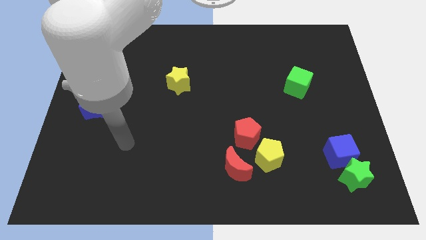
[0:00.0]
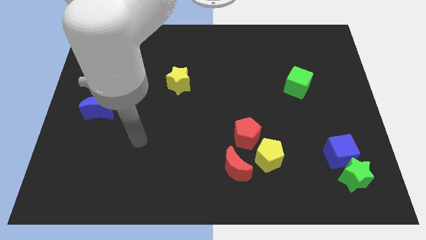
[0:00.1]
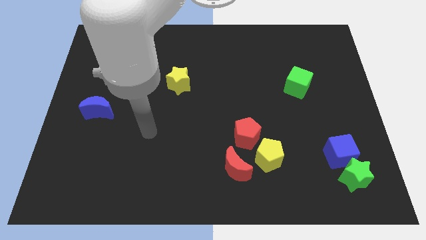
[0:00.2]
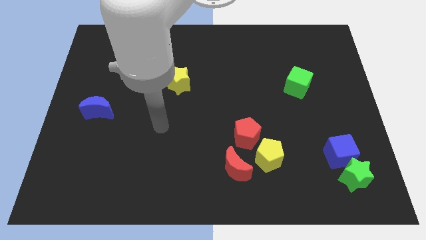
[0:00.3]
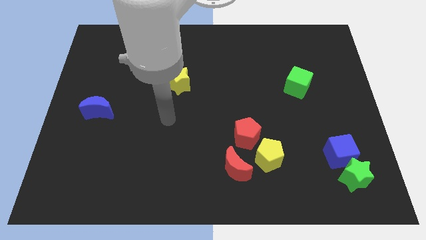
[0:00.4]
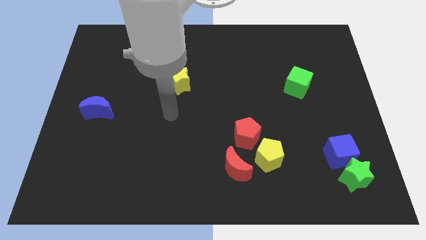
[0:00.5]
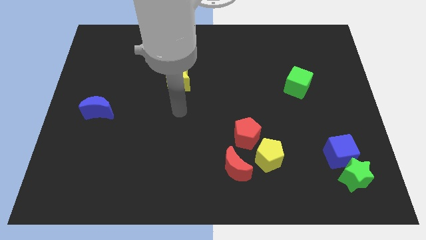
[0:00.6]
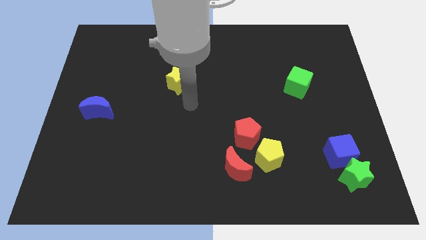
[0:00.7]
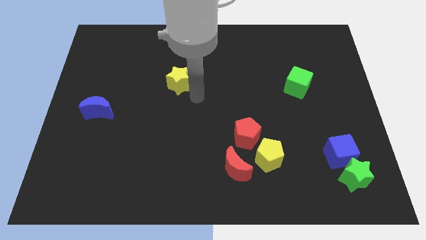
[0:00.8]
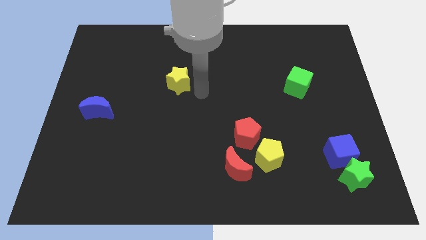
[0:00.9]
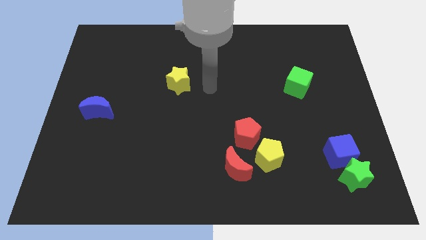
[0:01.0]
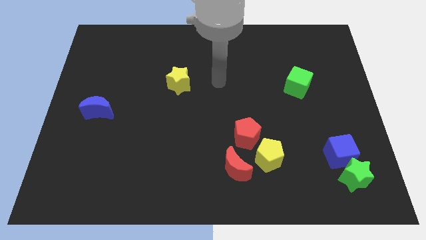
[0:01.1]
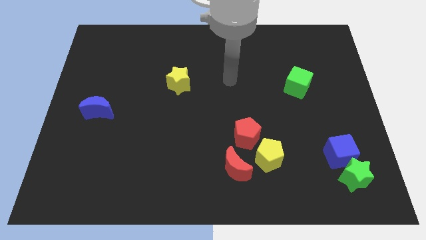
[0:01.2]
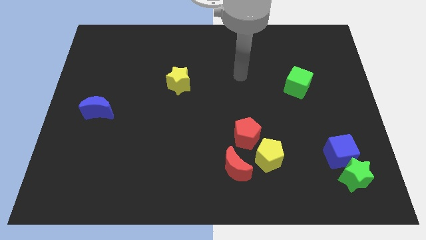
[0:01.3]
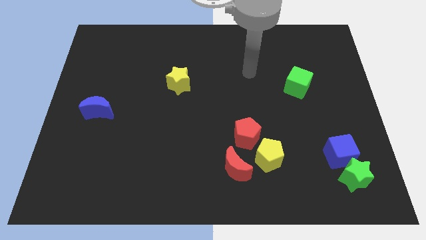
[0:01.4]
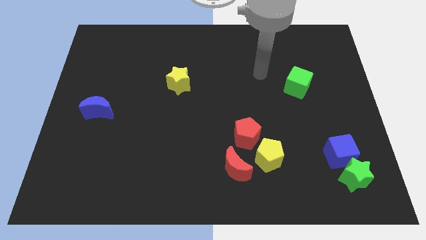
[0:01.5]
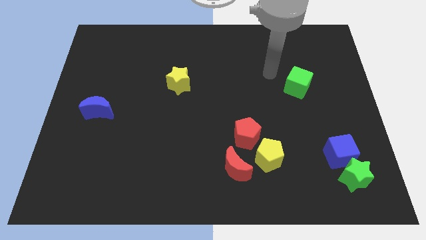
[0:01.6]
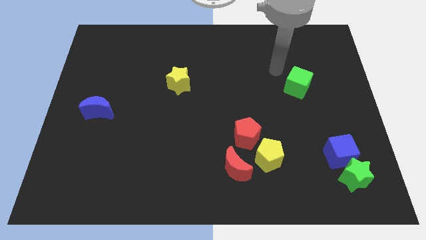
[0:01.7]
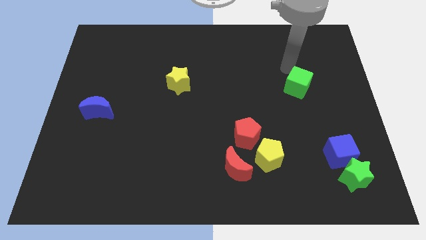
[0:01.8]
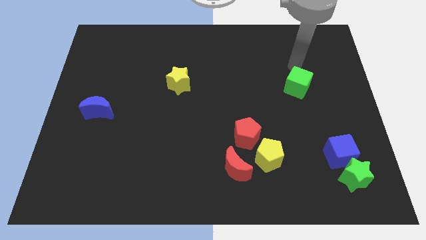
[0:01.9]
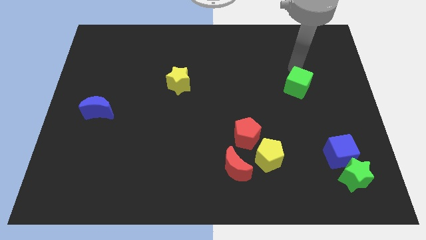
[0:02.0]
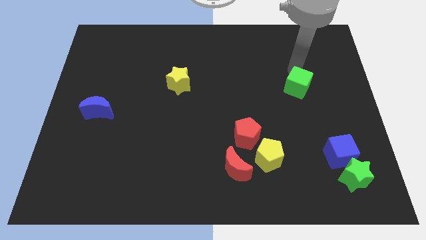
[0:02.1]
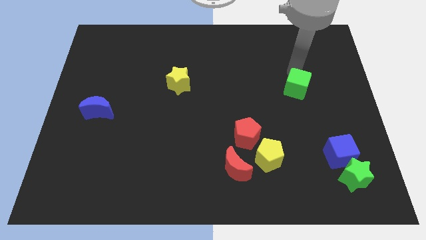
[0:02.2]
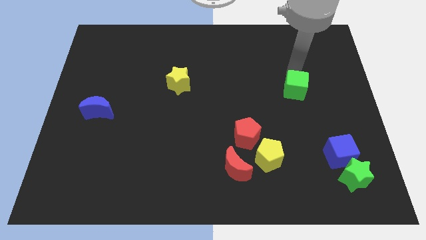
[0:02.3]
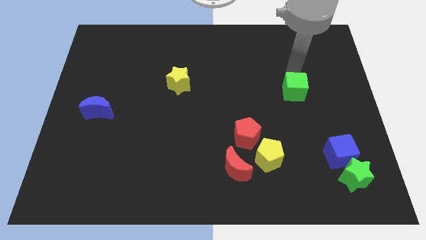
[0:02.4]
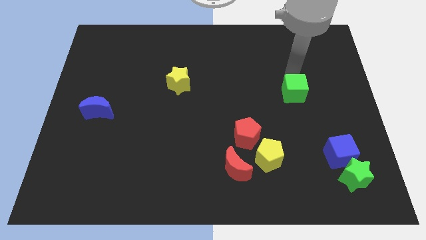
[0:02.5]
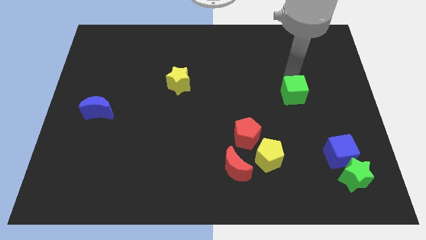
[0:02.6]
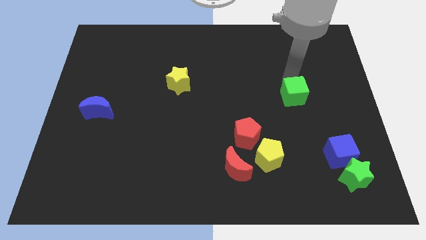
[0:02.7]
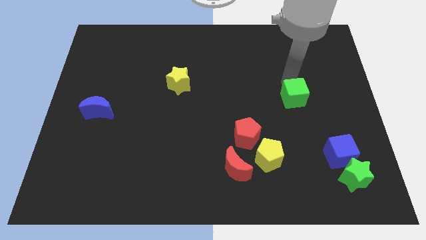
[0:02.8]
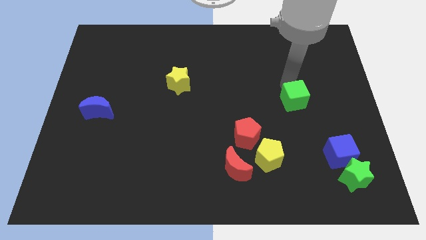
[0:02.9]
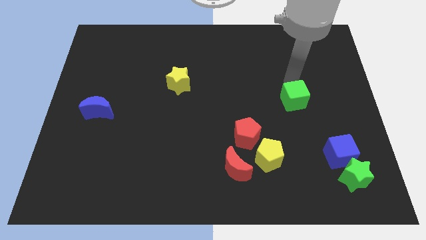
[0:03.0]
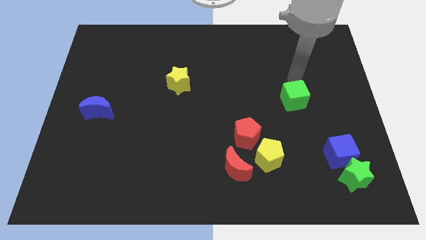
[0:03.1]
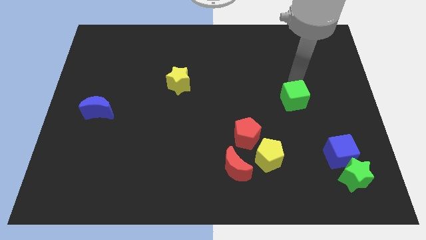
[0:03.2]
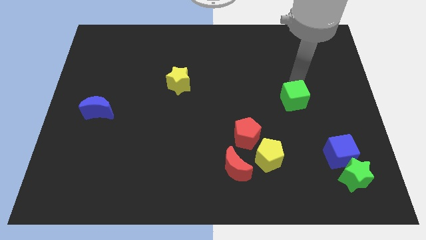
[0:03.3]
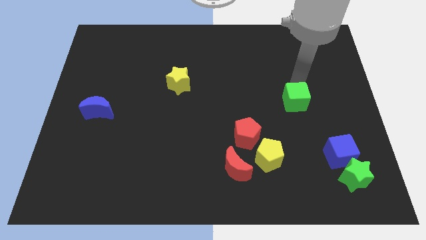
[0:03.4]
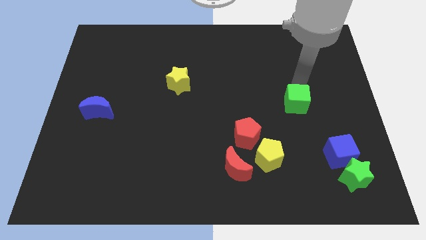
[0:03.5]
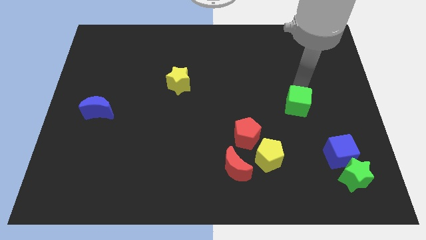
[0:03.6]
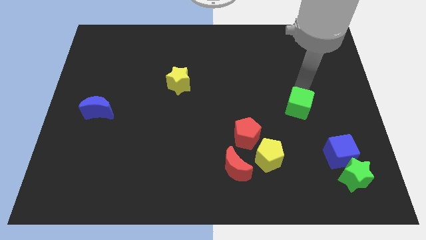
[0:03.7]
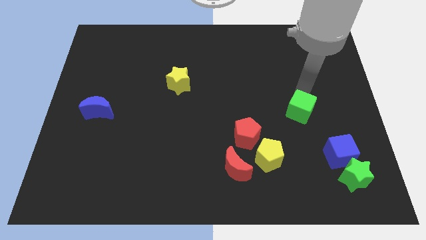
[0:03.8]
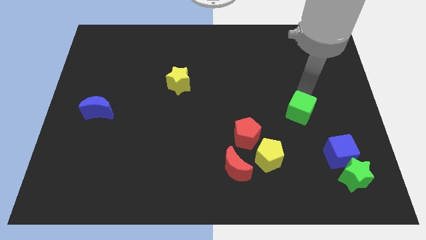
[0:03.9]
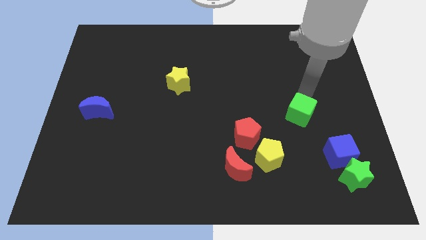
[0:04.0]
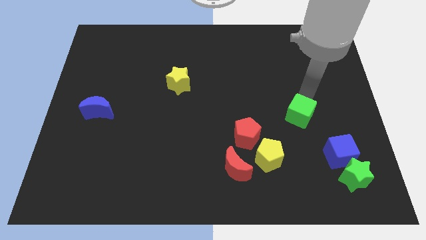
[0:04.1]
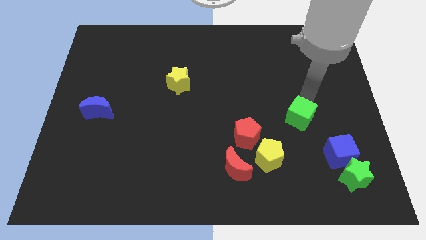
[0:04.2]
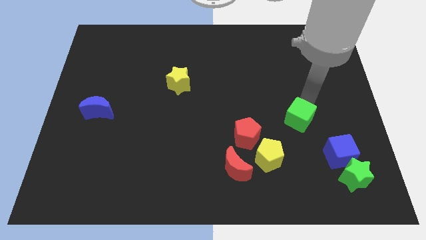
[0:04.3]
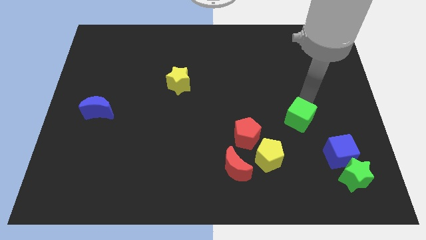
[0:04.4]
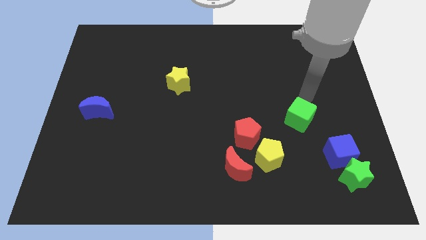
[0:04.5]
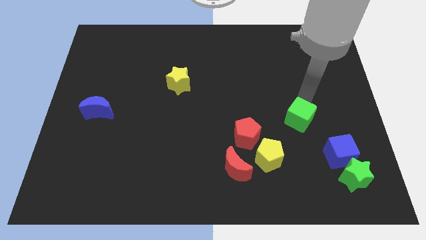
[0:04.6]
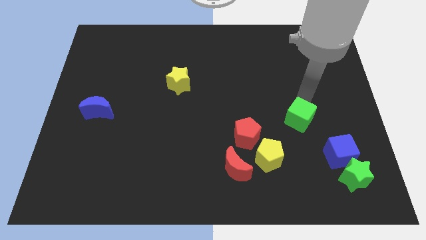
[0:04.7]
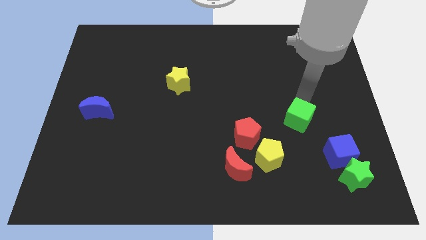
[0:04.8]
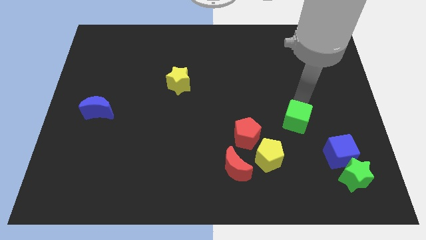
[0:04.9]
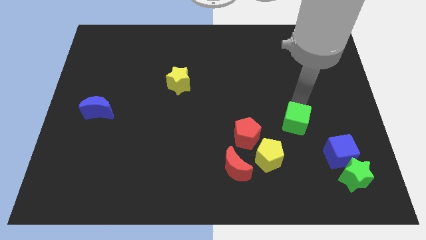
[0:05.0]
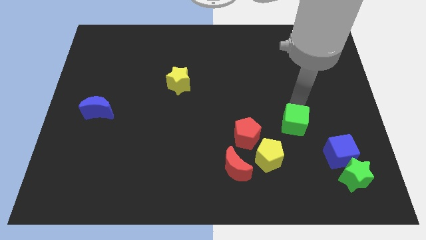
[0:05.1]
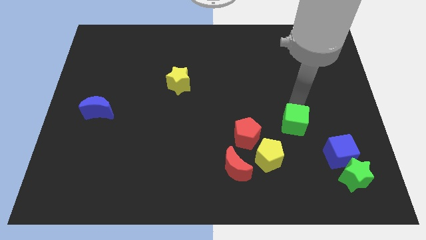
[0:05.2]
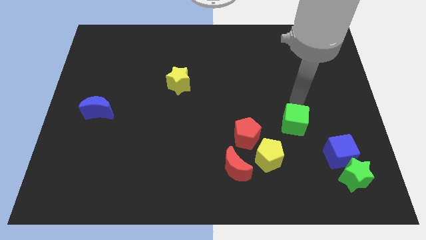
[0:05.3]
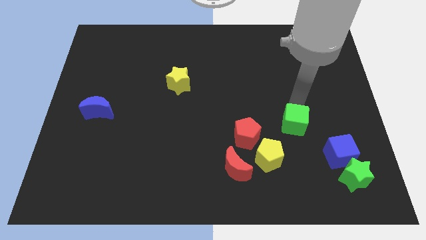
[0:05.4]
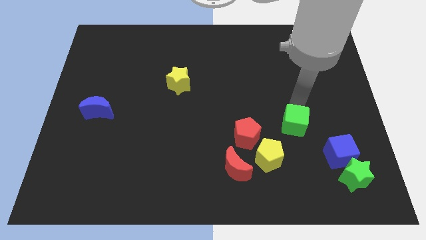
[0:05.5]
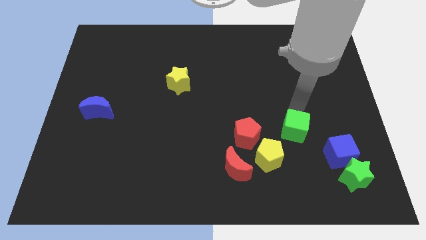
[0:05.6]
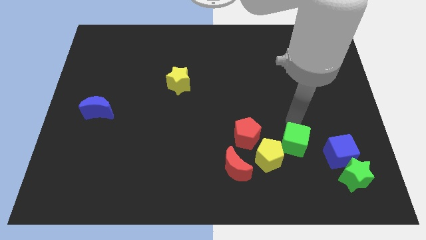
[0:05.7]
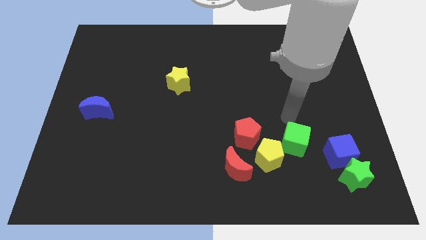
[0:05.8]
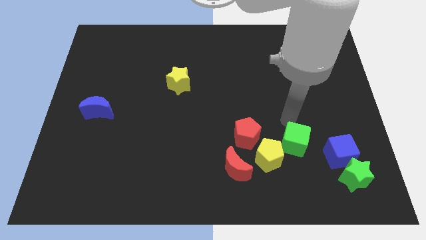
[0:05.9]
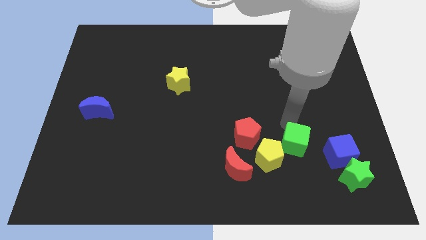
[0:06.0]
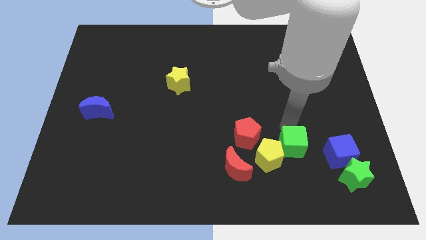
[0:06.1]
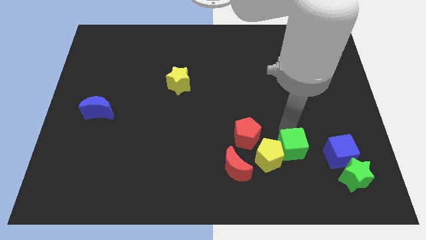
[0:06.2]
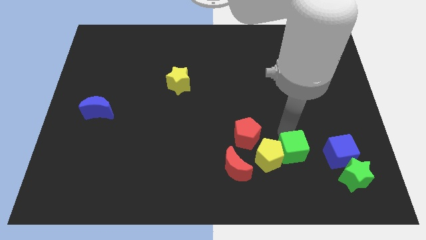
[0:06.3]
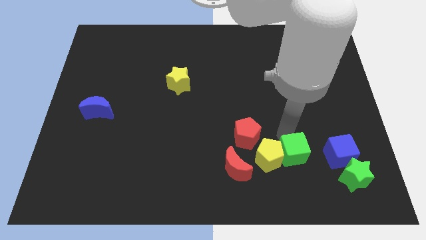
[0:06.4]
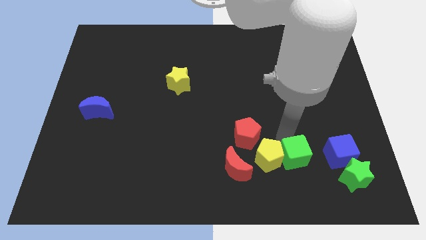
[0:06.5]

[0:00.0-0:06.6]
push the green cube left of the green star
